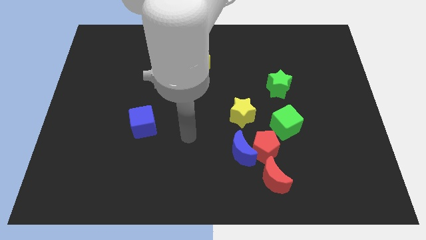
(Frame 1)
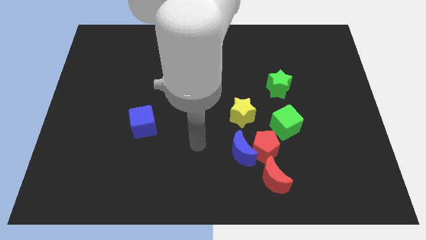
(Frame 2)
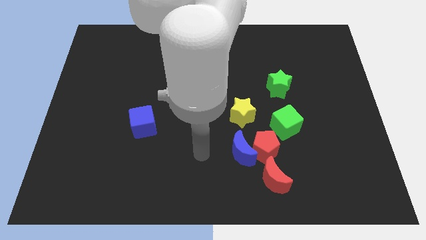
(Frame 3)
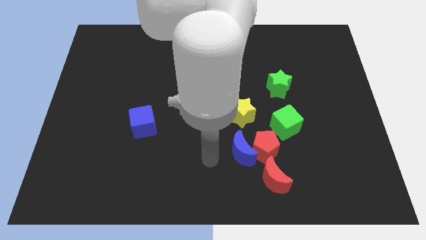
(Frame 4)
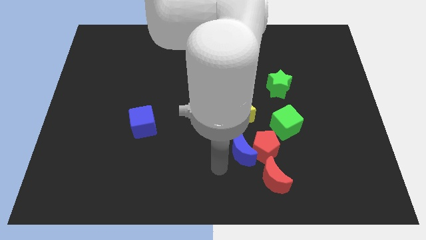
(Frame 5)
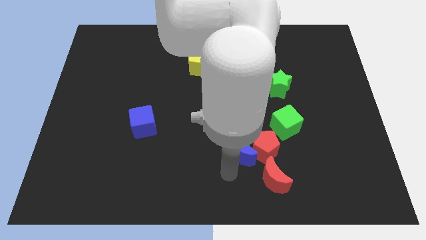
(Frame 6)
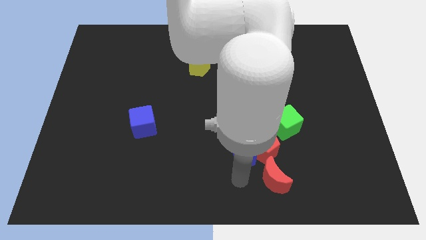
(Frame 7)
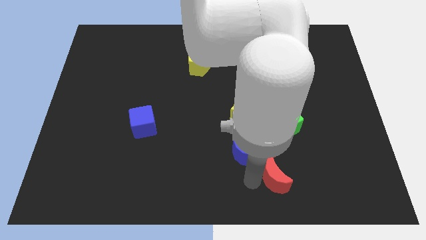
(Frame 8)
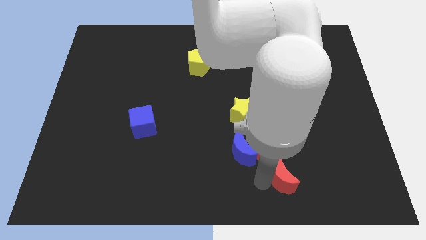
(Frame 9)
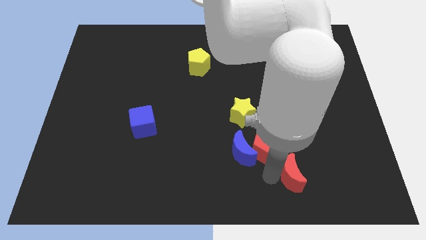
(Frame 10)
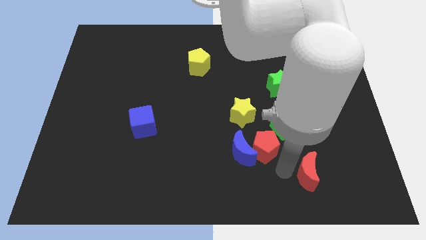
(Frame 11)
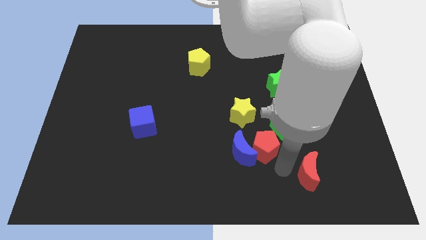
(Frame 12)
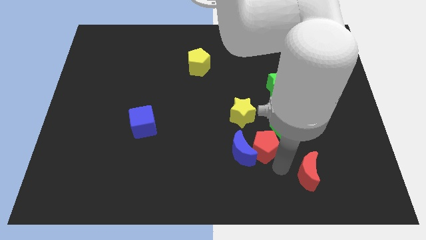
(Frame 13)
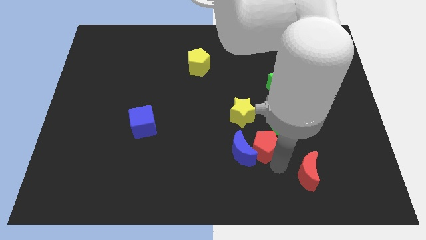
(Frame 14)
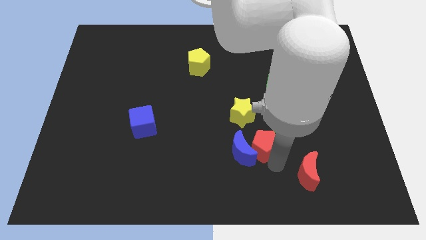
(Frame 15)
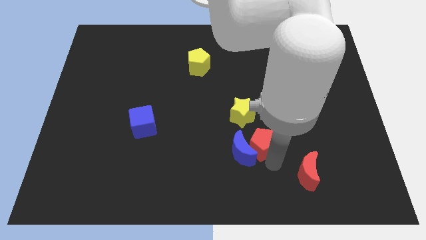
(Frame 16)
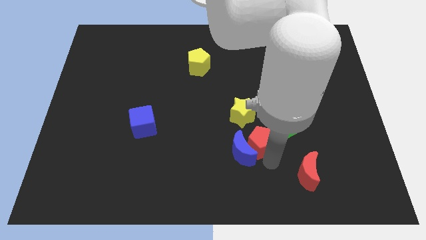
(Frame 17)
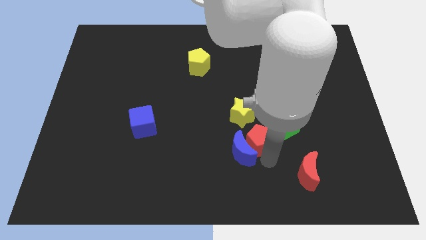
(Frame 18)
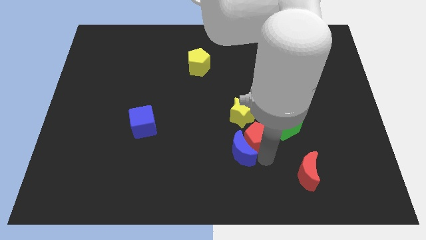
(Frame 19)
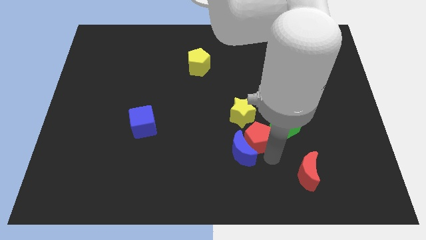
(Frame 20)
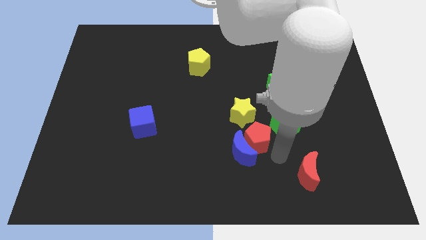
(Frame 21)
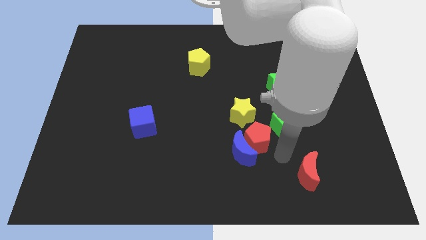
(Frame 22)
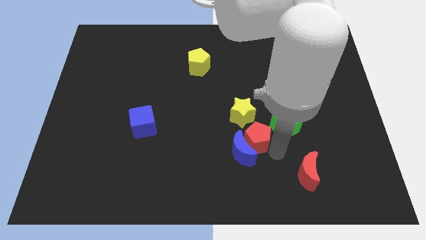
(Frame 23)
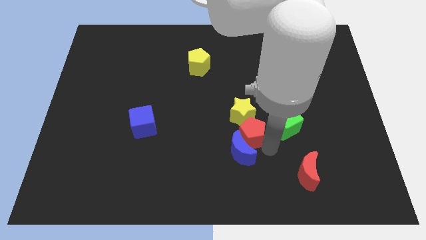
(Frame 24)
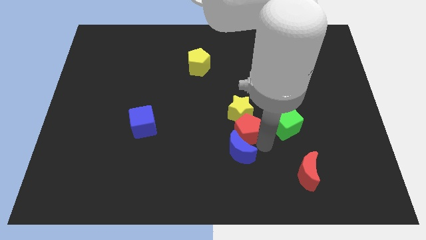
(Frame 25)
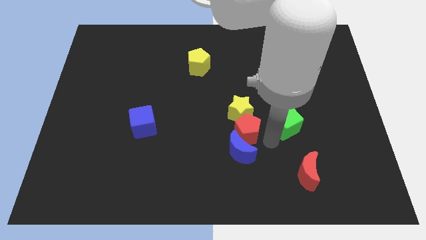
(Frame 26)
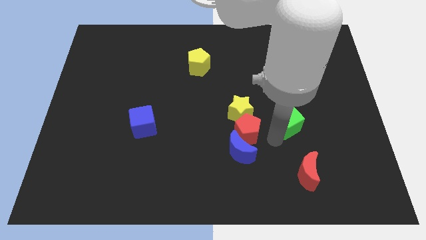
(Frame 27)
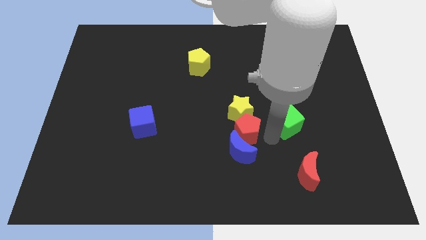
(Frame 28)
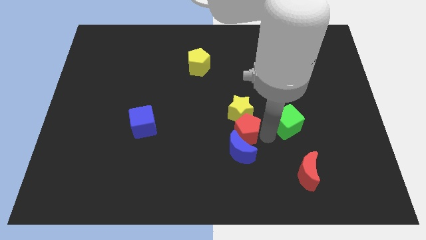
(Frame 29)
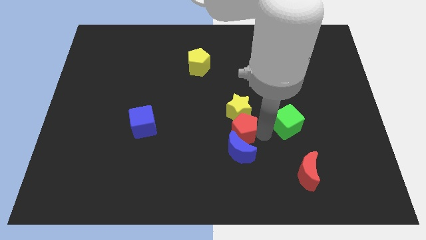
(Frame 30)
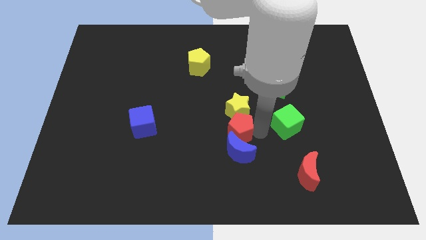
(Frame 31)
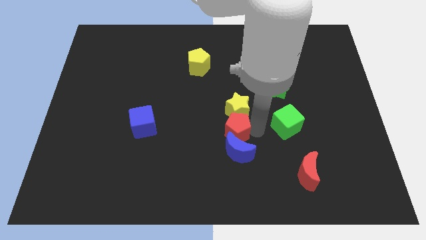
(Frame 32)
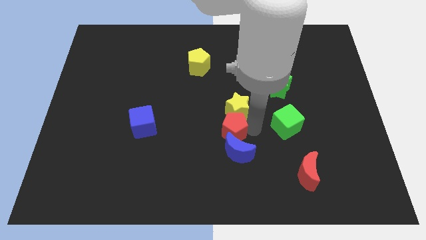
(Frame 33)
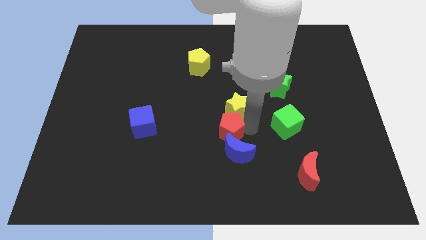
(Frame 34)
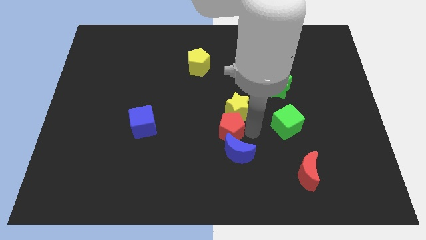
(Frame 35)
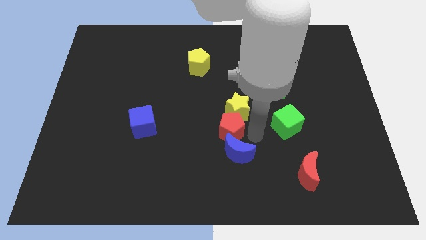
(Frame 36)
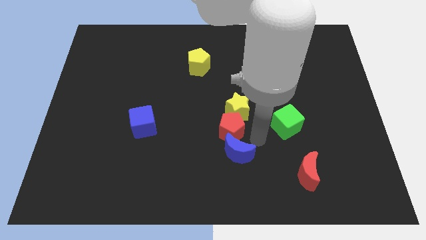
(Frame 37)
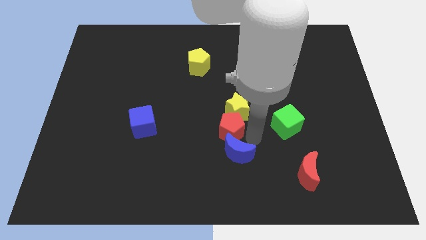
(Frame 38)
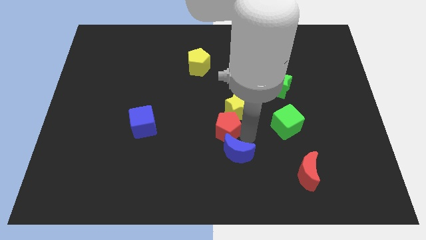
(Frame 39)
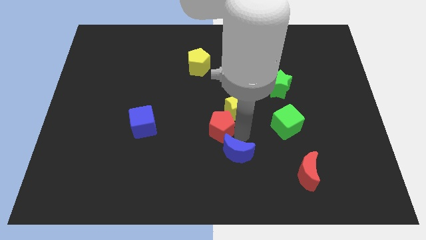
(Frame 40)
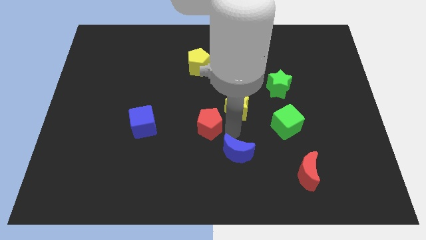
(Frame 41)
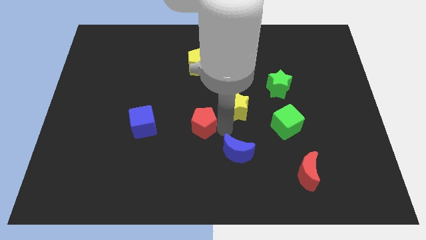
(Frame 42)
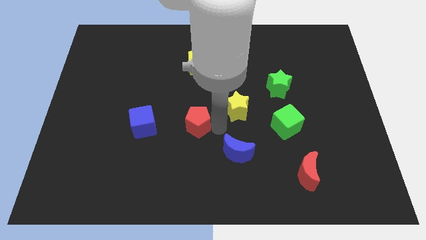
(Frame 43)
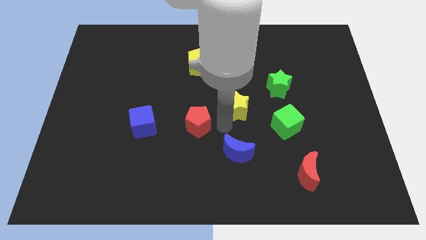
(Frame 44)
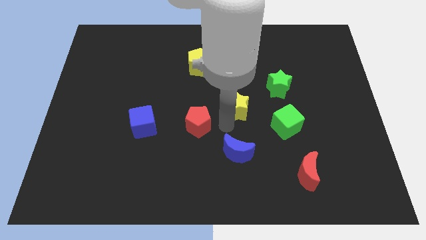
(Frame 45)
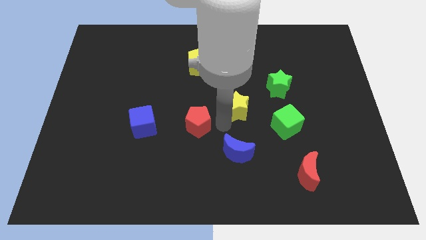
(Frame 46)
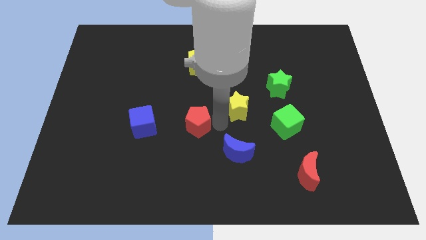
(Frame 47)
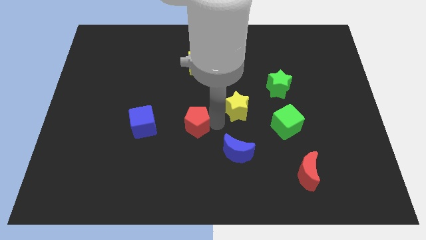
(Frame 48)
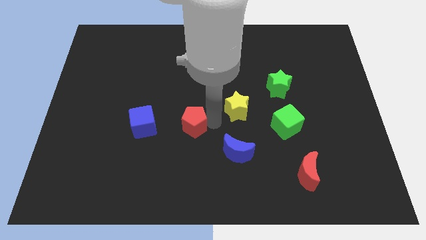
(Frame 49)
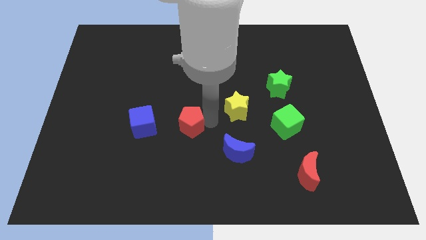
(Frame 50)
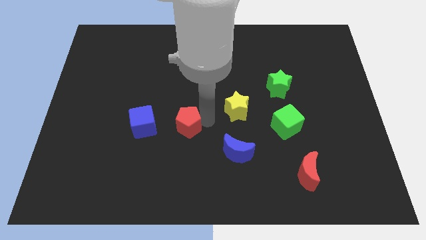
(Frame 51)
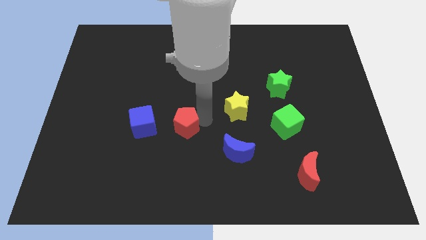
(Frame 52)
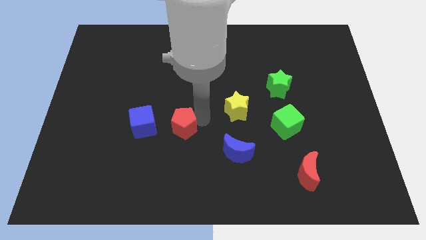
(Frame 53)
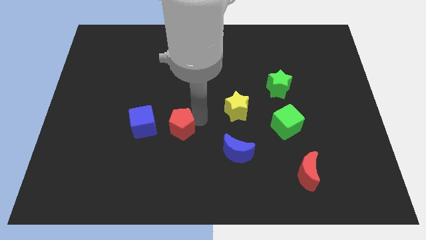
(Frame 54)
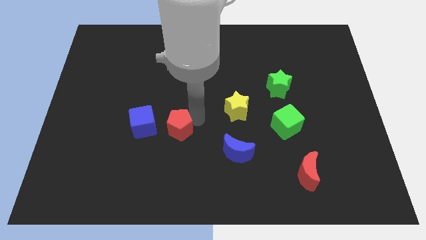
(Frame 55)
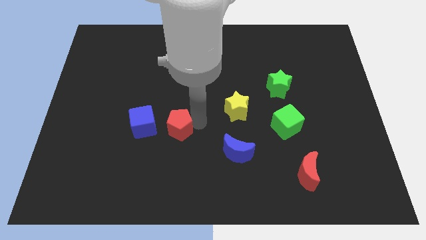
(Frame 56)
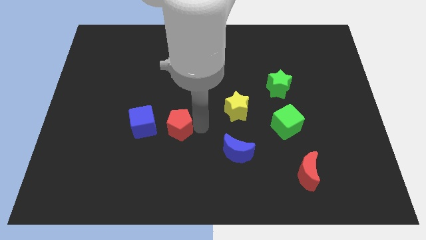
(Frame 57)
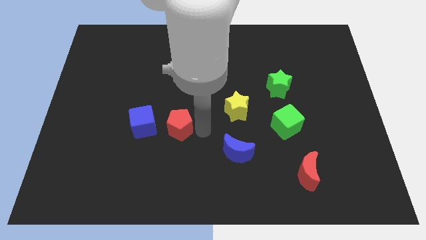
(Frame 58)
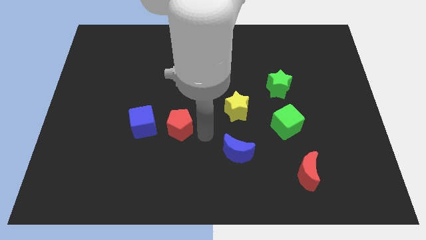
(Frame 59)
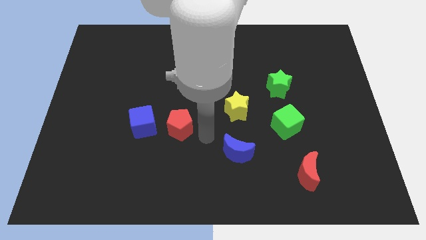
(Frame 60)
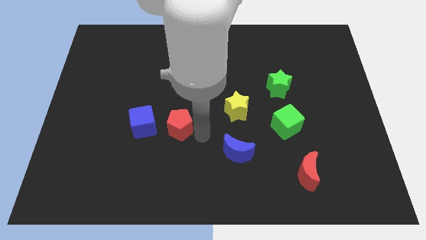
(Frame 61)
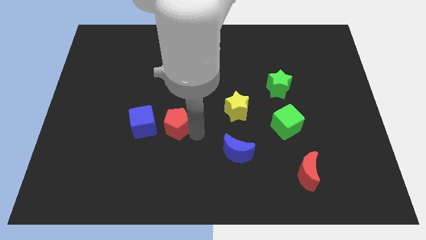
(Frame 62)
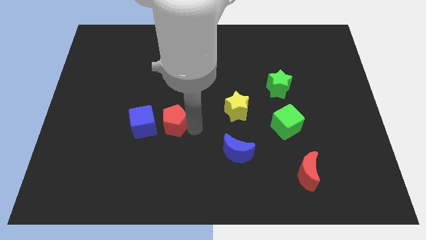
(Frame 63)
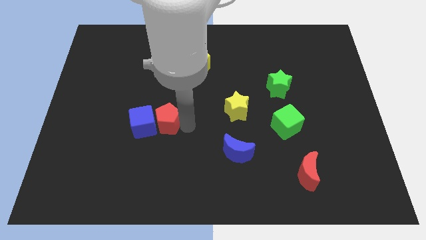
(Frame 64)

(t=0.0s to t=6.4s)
slide the red pentagon to the blue cube

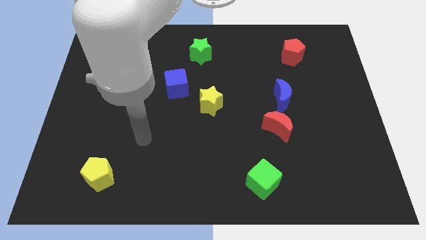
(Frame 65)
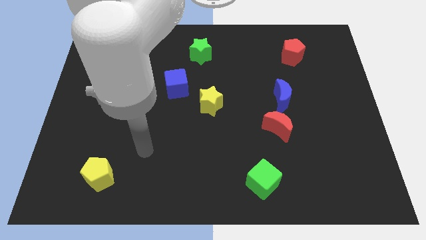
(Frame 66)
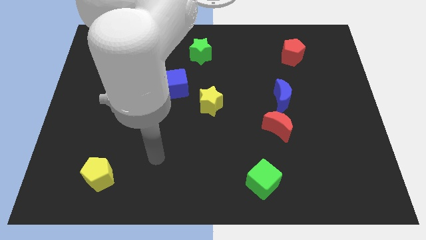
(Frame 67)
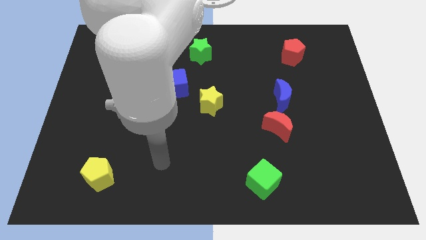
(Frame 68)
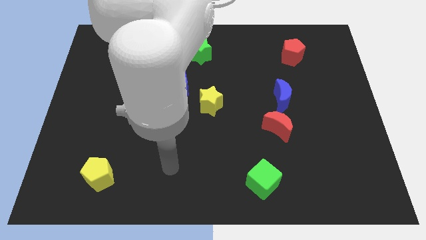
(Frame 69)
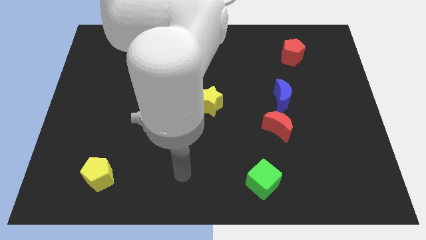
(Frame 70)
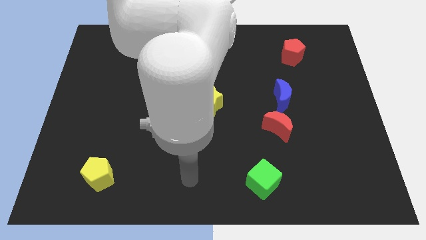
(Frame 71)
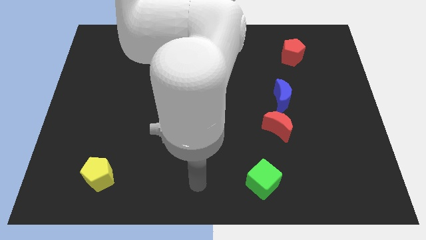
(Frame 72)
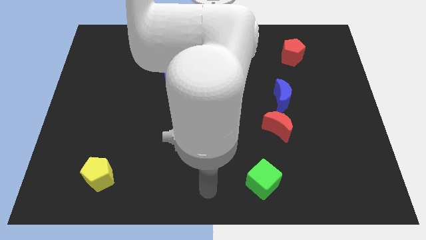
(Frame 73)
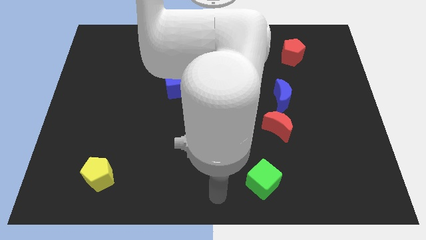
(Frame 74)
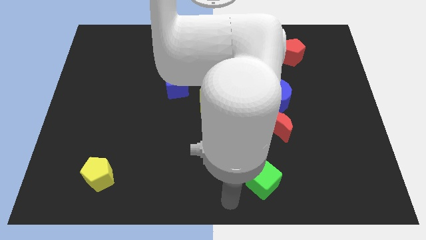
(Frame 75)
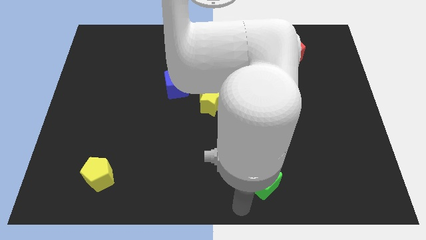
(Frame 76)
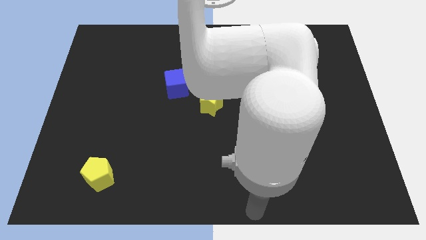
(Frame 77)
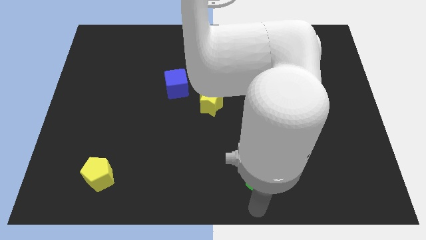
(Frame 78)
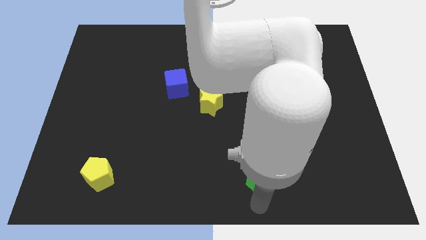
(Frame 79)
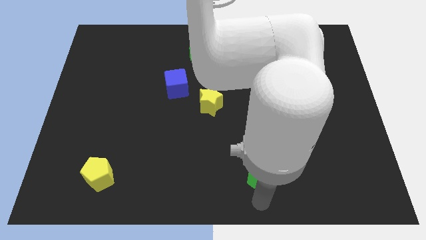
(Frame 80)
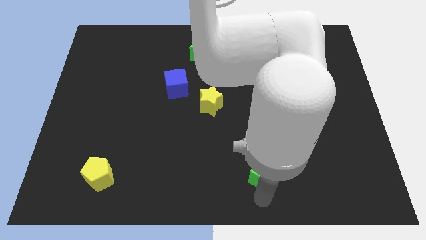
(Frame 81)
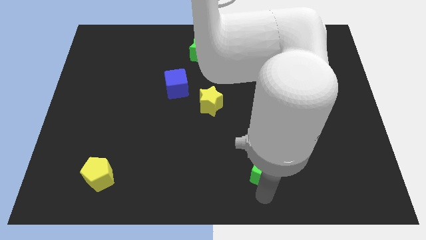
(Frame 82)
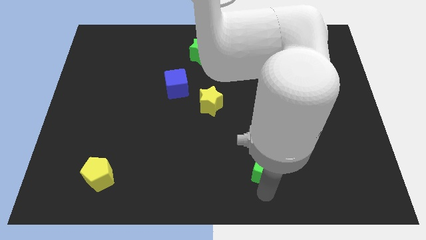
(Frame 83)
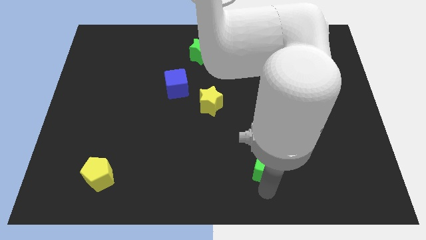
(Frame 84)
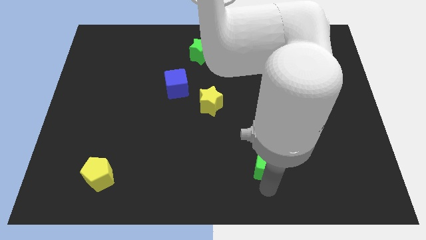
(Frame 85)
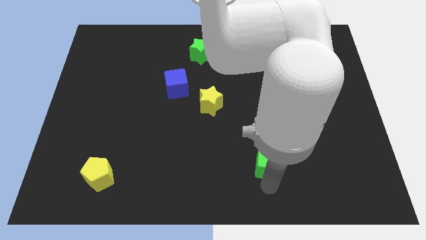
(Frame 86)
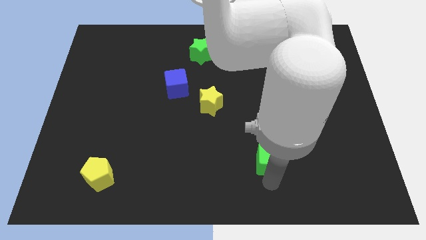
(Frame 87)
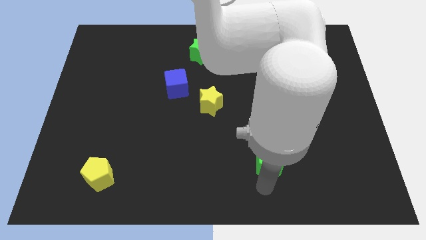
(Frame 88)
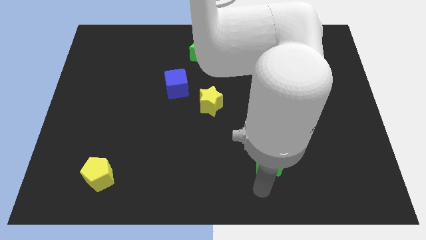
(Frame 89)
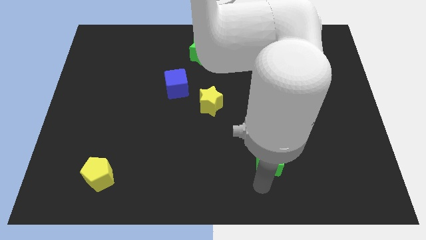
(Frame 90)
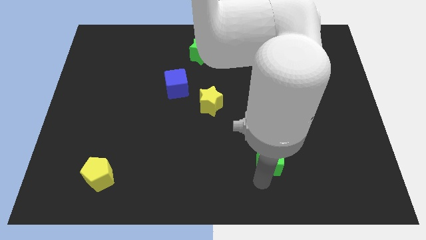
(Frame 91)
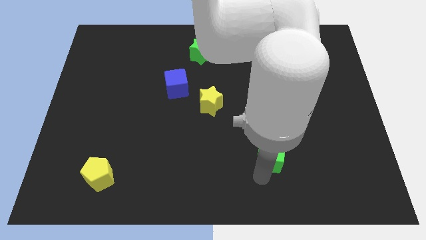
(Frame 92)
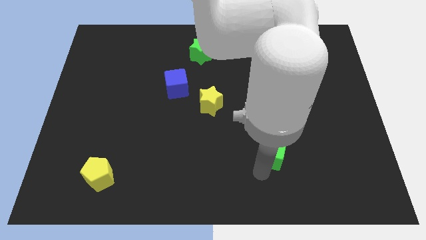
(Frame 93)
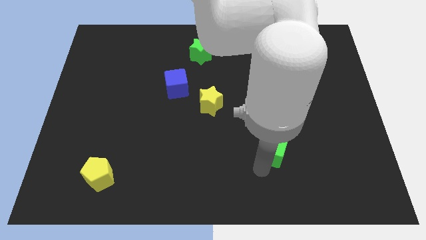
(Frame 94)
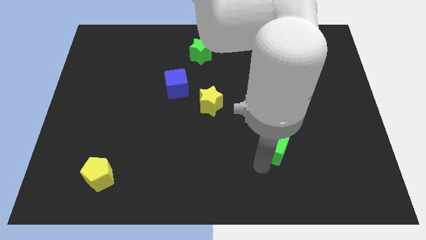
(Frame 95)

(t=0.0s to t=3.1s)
move the green cube close to the red moon
